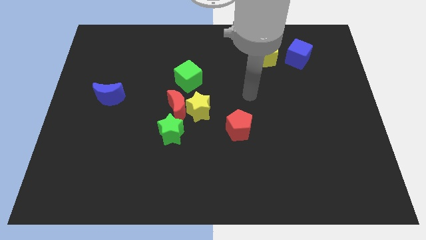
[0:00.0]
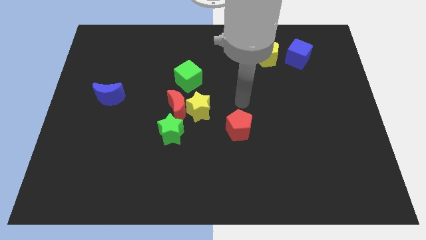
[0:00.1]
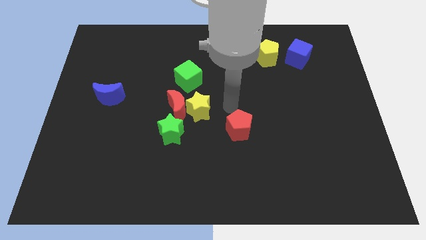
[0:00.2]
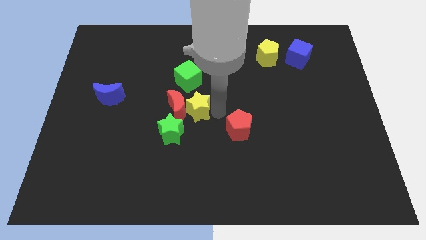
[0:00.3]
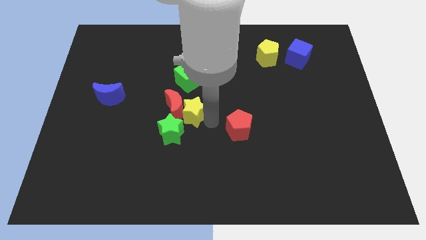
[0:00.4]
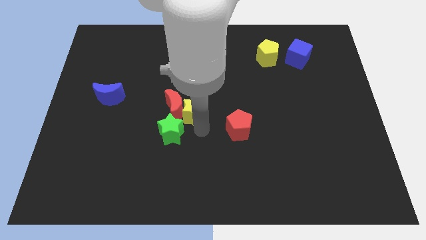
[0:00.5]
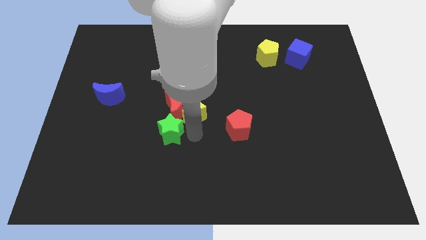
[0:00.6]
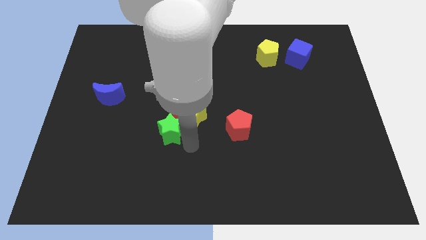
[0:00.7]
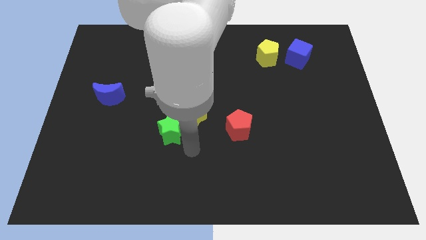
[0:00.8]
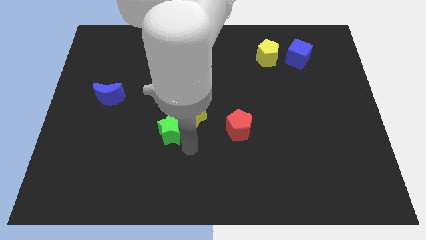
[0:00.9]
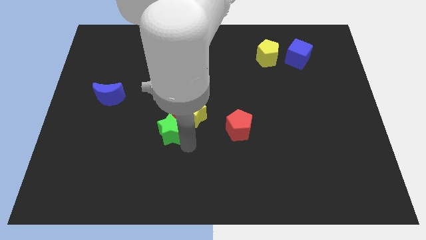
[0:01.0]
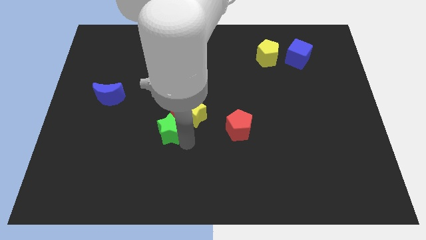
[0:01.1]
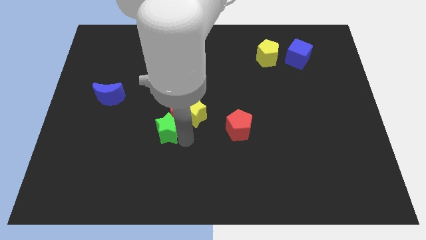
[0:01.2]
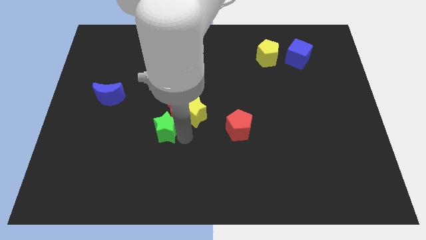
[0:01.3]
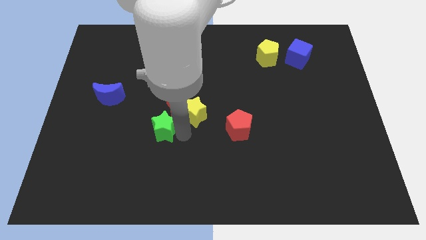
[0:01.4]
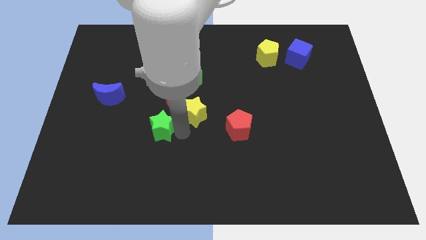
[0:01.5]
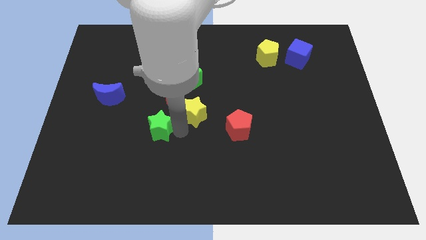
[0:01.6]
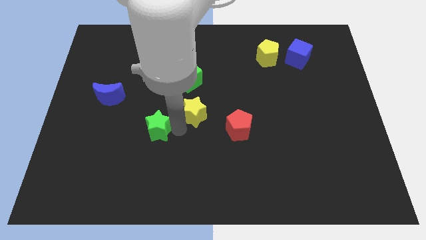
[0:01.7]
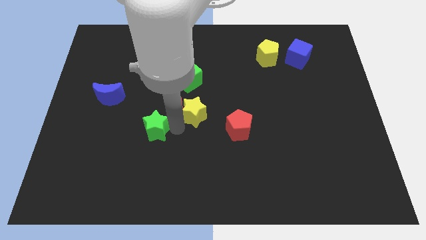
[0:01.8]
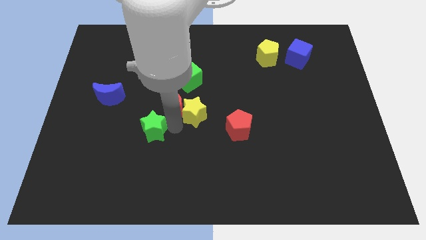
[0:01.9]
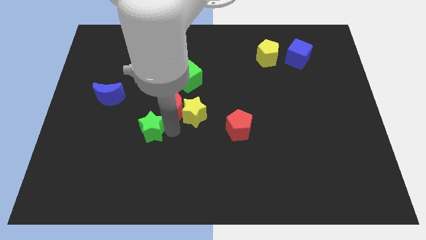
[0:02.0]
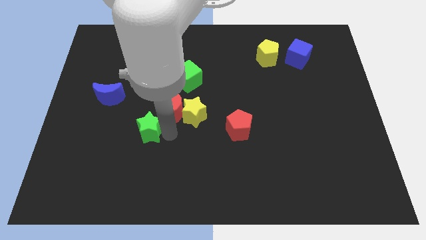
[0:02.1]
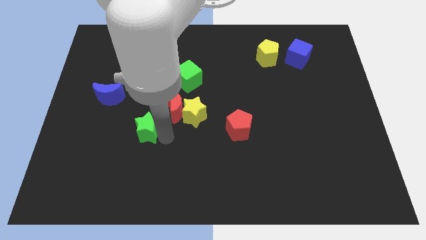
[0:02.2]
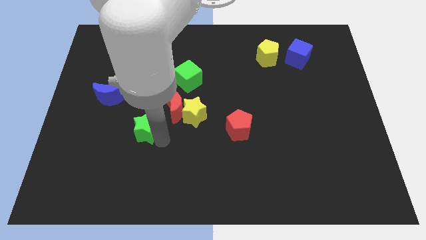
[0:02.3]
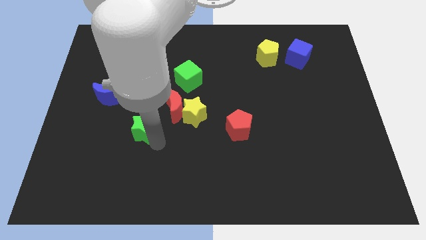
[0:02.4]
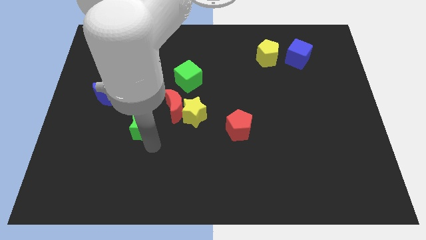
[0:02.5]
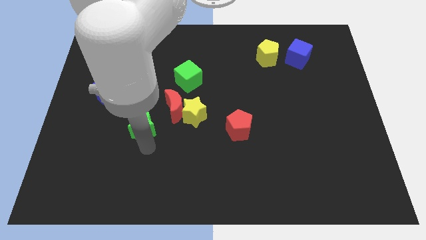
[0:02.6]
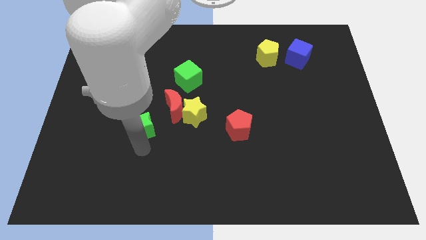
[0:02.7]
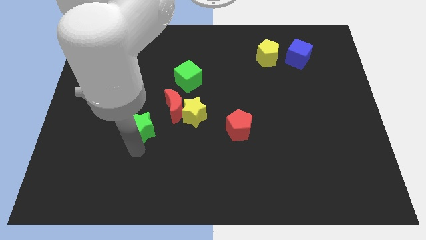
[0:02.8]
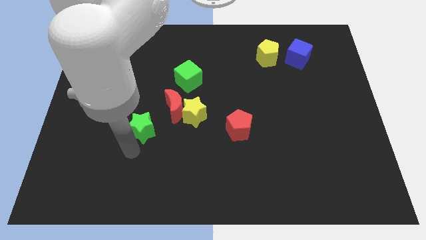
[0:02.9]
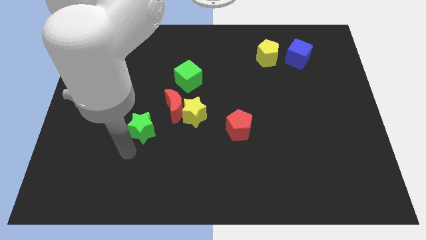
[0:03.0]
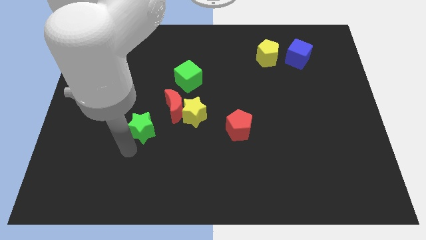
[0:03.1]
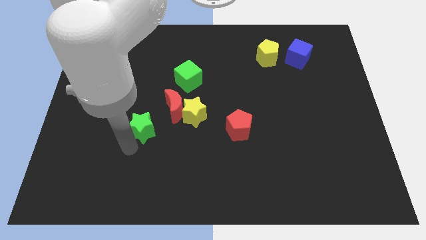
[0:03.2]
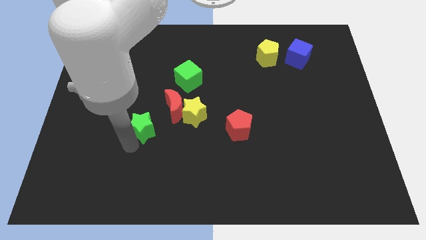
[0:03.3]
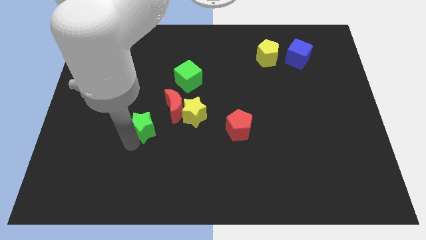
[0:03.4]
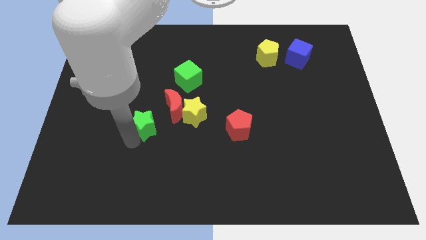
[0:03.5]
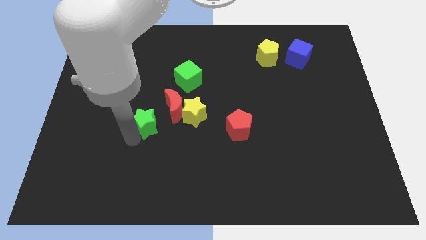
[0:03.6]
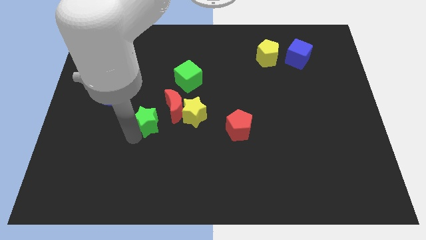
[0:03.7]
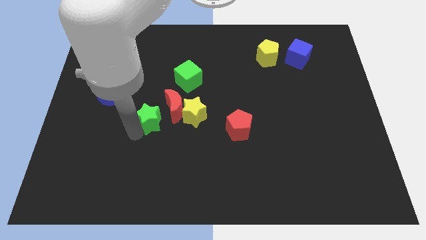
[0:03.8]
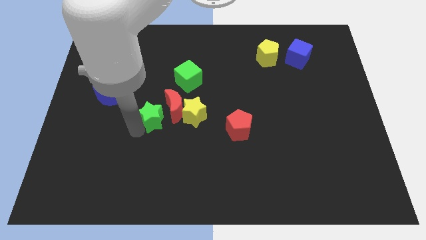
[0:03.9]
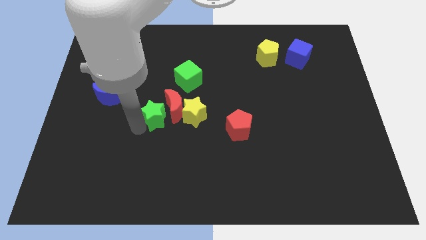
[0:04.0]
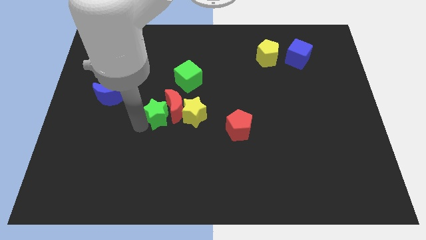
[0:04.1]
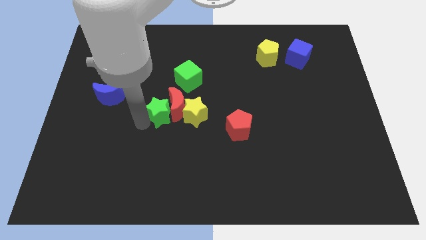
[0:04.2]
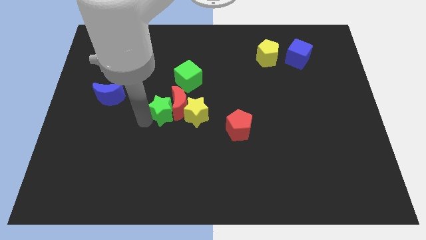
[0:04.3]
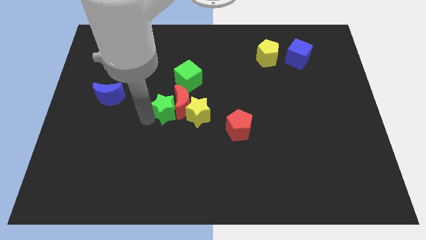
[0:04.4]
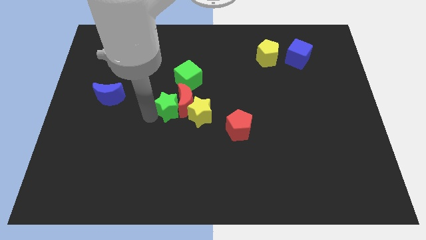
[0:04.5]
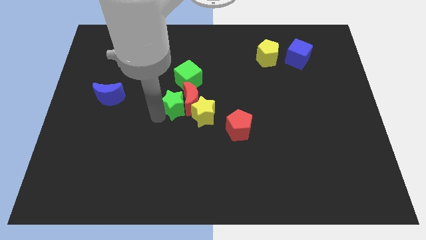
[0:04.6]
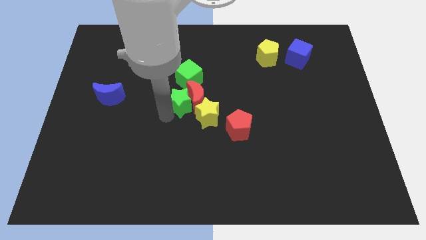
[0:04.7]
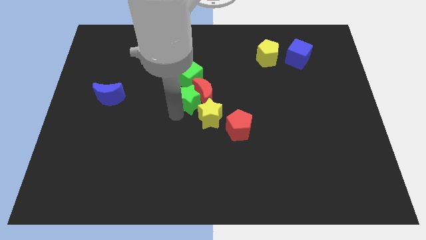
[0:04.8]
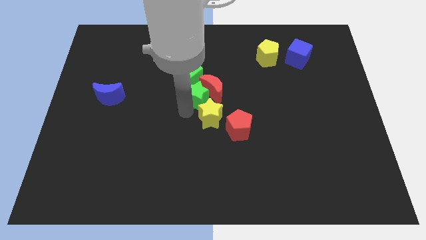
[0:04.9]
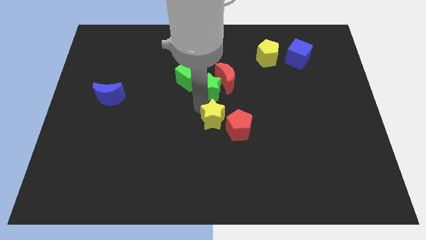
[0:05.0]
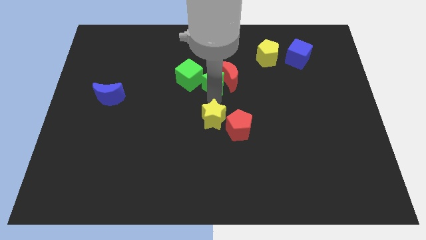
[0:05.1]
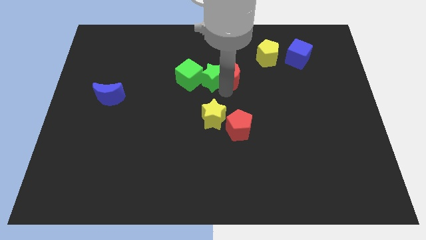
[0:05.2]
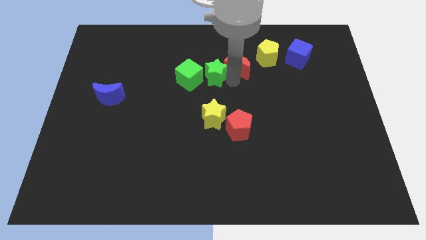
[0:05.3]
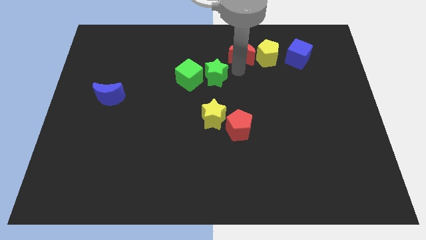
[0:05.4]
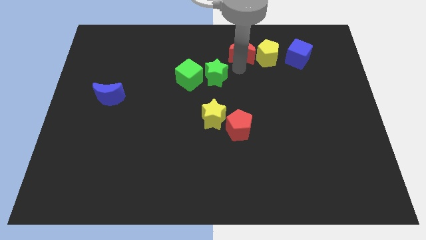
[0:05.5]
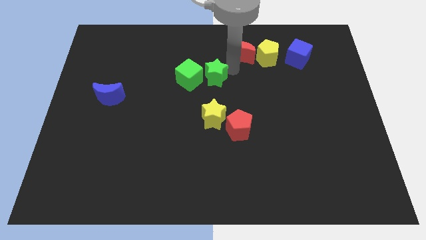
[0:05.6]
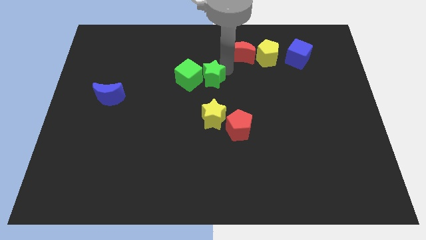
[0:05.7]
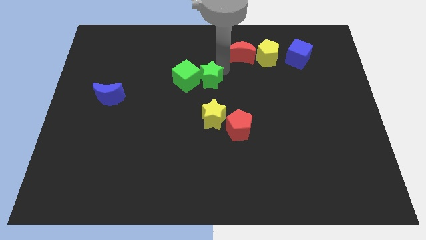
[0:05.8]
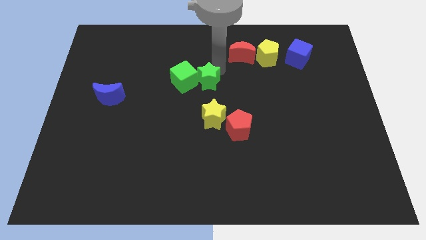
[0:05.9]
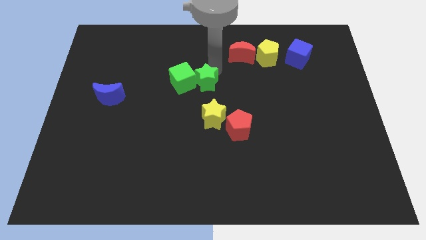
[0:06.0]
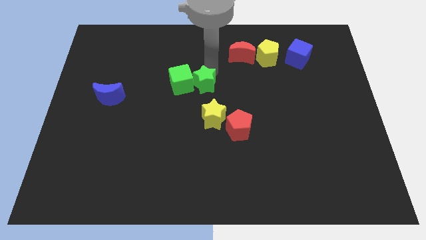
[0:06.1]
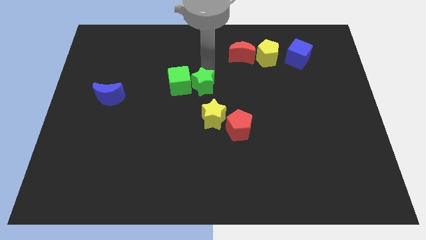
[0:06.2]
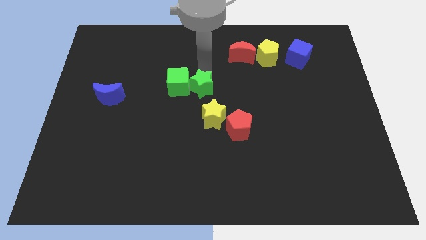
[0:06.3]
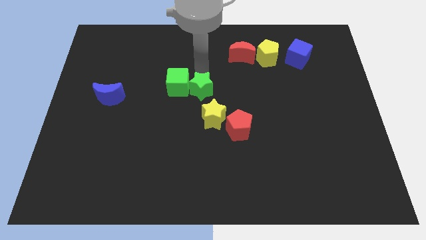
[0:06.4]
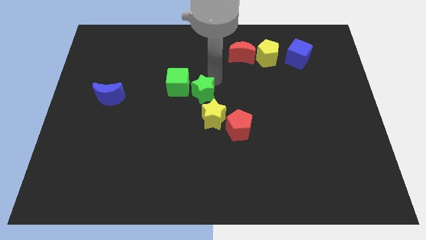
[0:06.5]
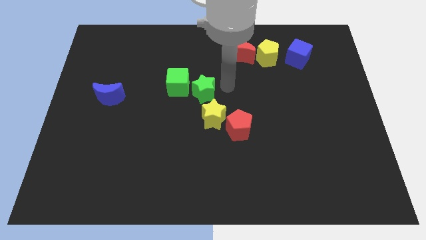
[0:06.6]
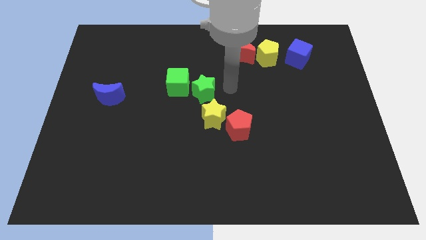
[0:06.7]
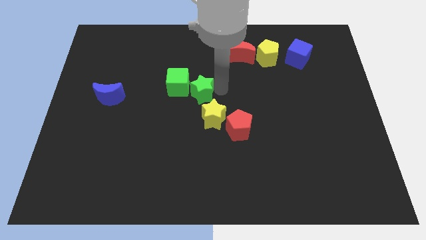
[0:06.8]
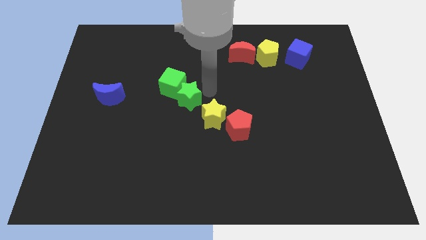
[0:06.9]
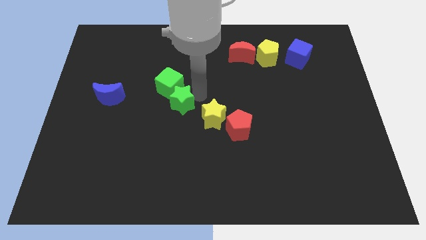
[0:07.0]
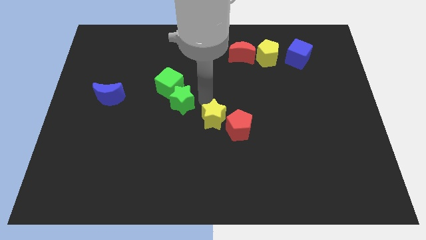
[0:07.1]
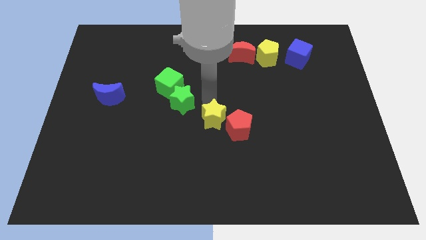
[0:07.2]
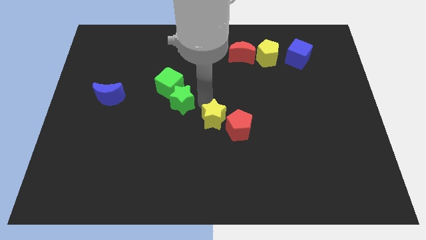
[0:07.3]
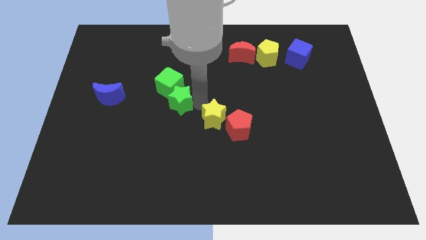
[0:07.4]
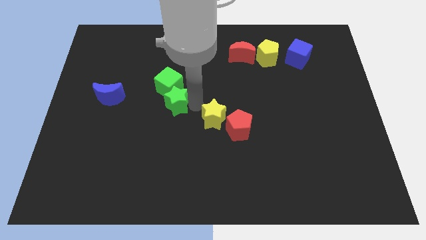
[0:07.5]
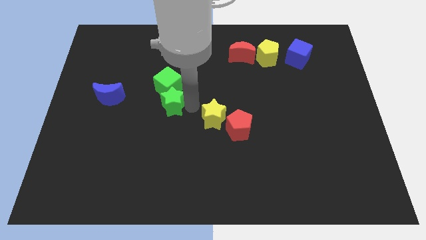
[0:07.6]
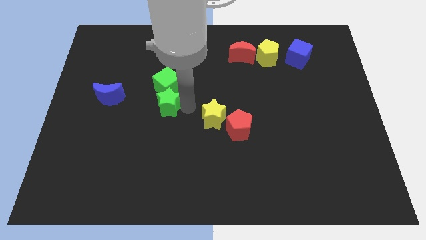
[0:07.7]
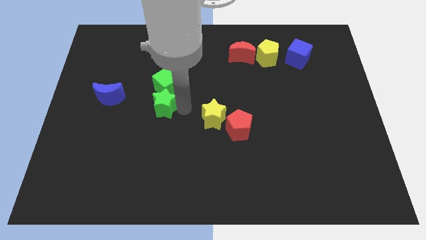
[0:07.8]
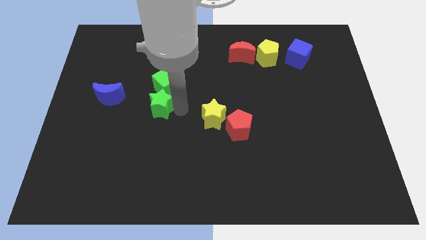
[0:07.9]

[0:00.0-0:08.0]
push the green star diagonally up and to the left a bit

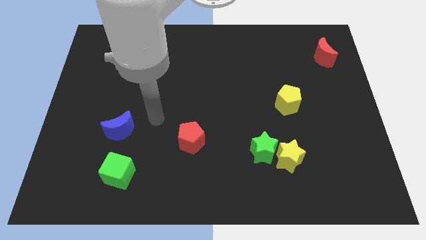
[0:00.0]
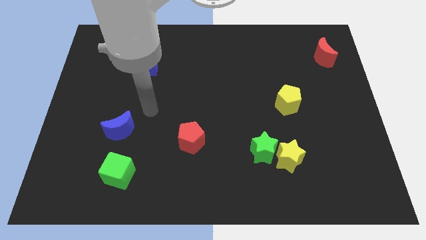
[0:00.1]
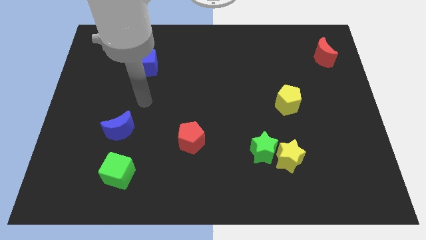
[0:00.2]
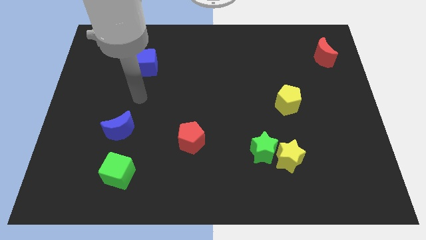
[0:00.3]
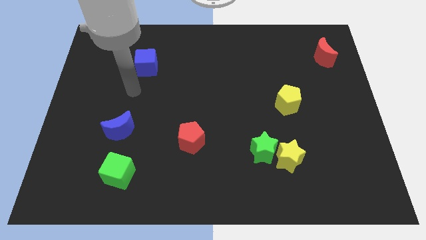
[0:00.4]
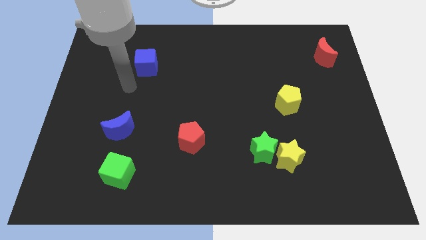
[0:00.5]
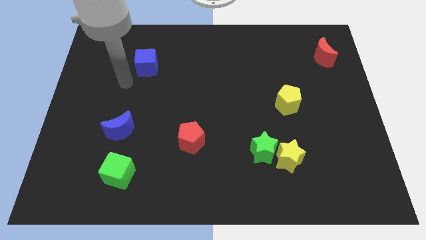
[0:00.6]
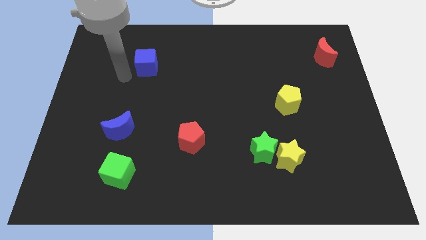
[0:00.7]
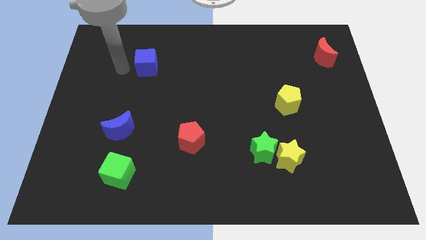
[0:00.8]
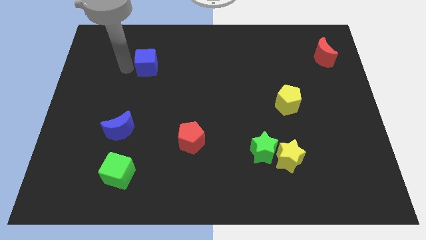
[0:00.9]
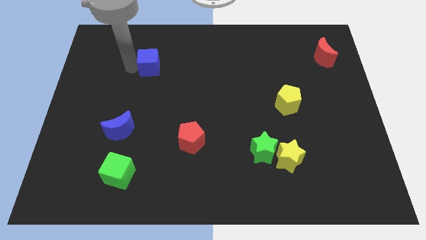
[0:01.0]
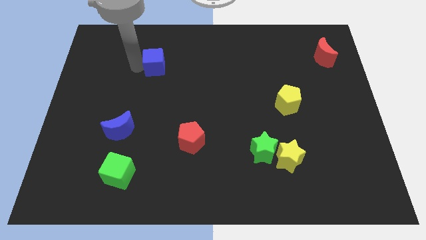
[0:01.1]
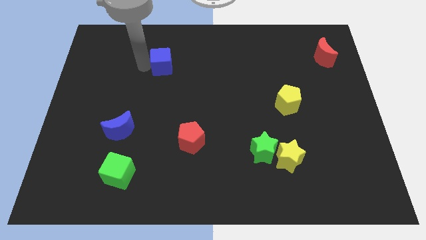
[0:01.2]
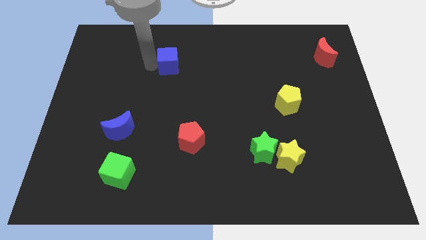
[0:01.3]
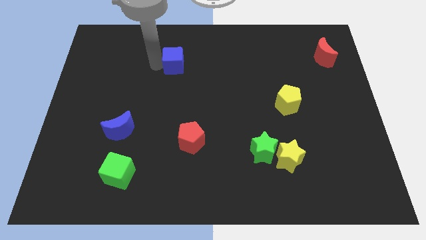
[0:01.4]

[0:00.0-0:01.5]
push the blue cube right a little
